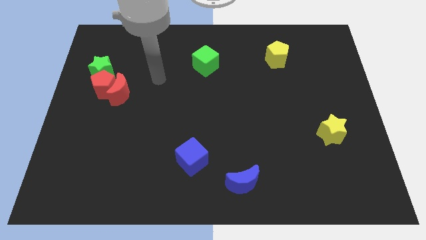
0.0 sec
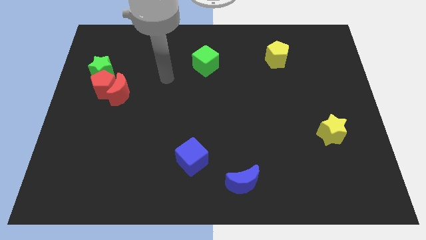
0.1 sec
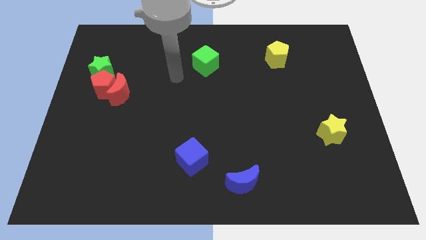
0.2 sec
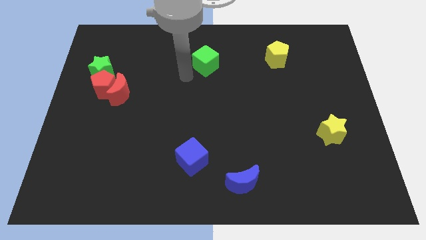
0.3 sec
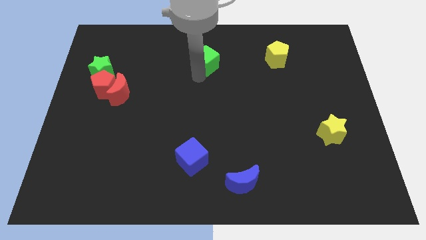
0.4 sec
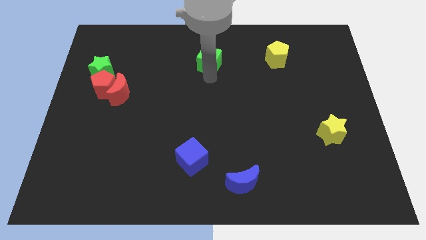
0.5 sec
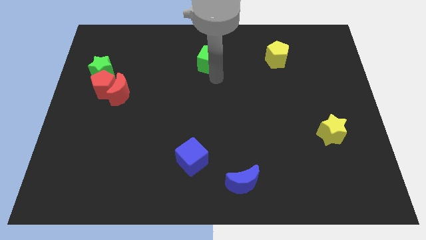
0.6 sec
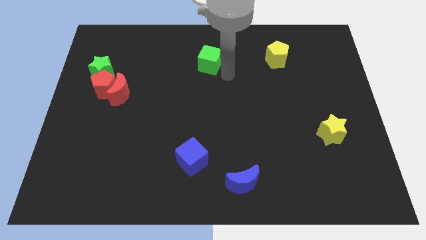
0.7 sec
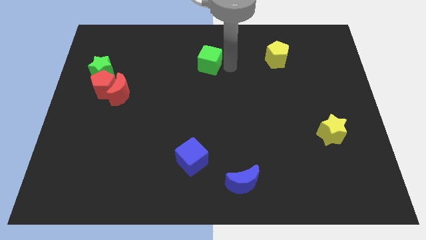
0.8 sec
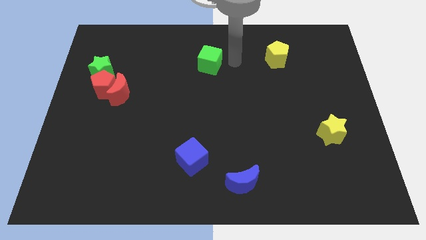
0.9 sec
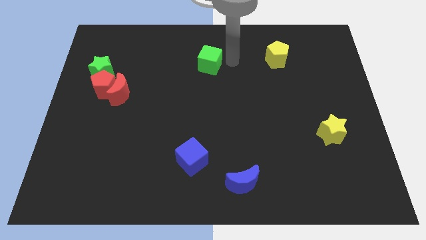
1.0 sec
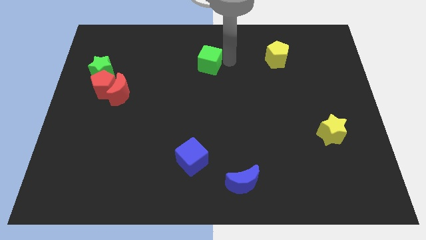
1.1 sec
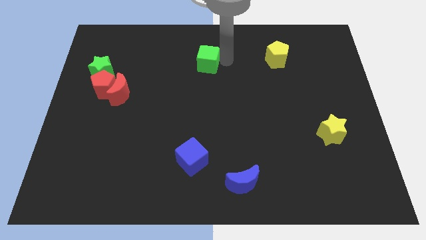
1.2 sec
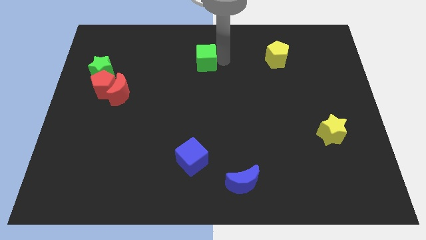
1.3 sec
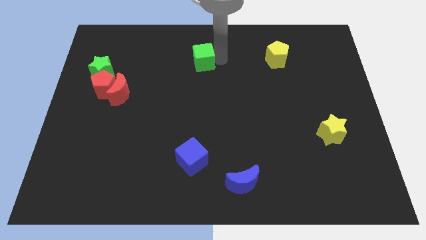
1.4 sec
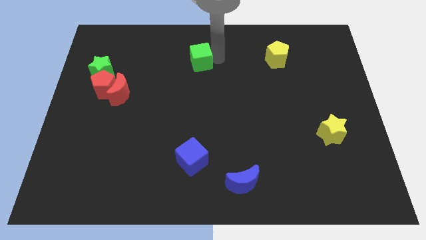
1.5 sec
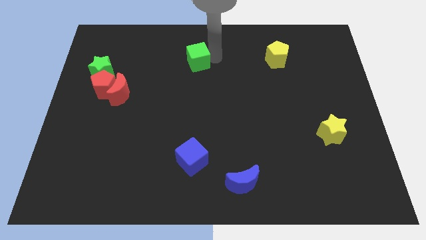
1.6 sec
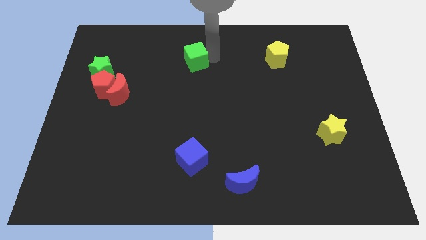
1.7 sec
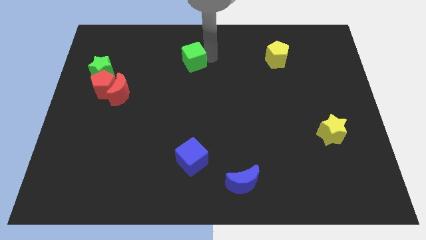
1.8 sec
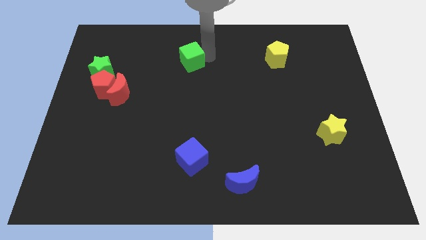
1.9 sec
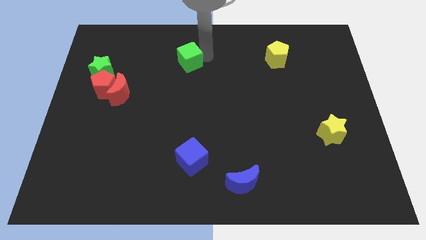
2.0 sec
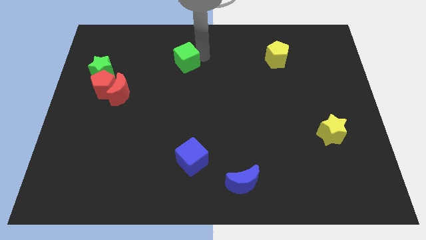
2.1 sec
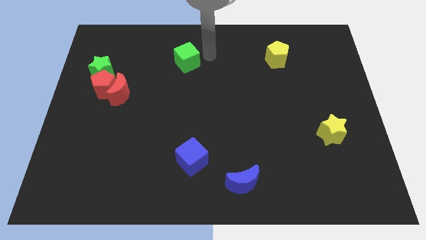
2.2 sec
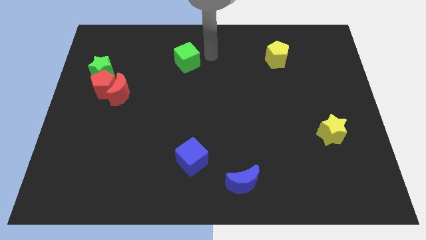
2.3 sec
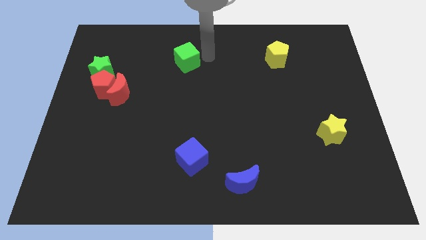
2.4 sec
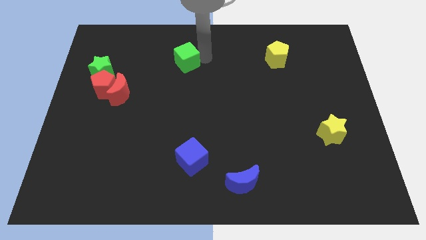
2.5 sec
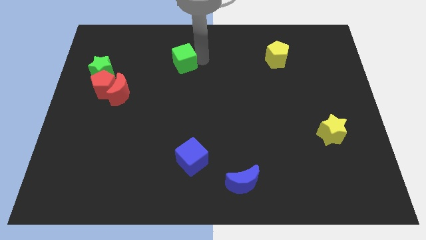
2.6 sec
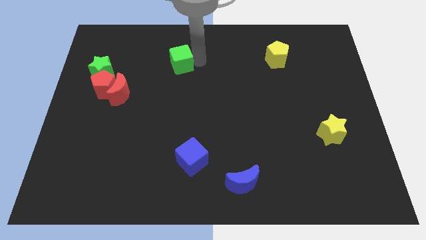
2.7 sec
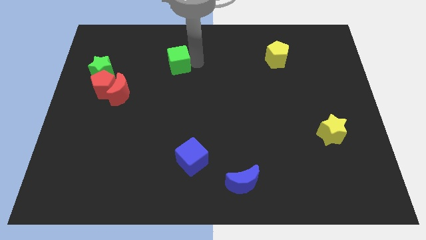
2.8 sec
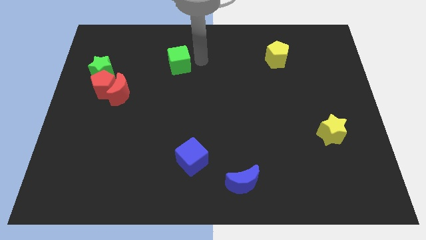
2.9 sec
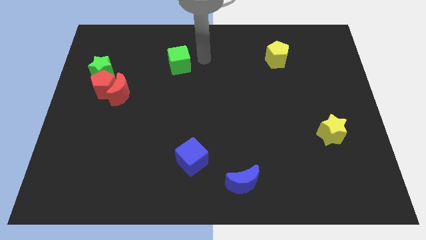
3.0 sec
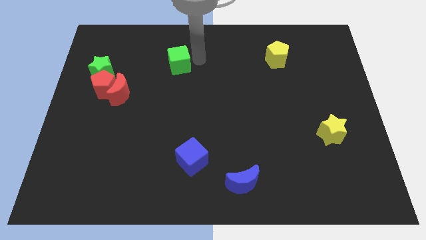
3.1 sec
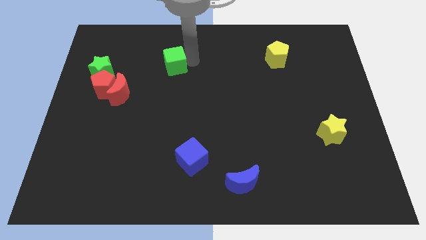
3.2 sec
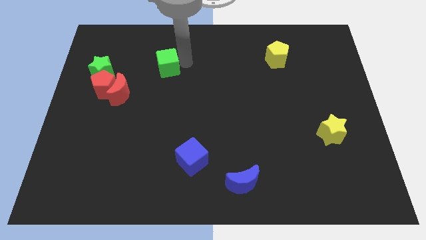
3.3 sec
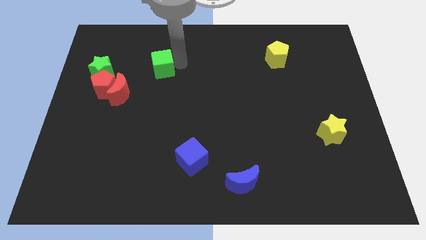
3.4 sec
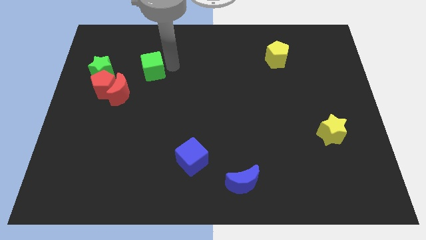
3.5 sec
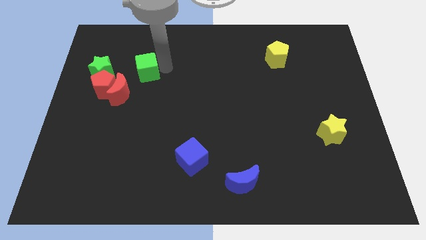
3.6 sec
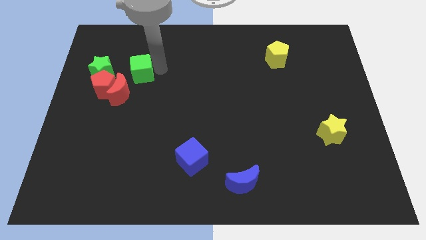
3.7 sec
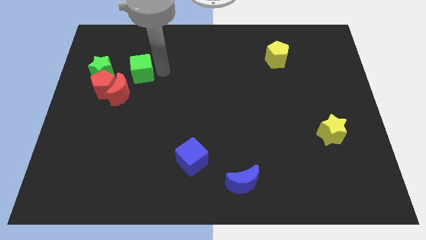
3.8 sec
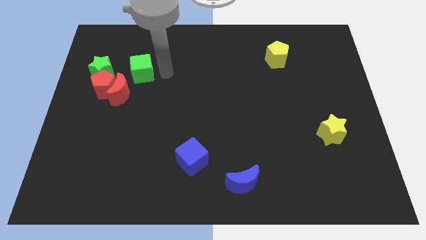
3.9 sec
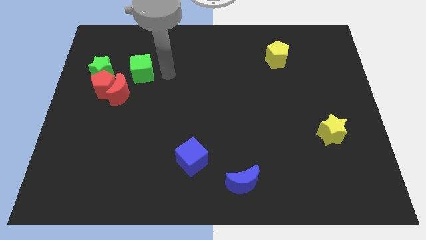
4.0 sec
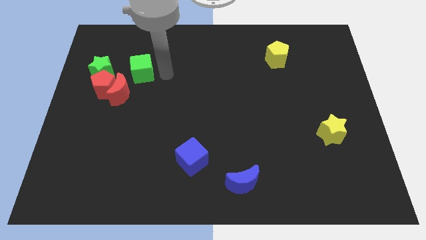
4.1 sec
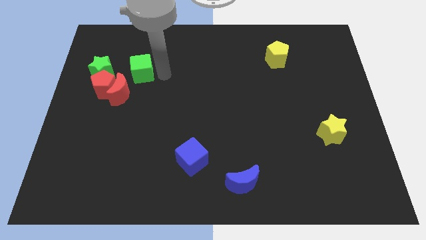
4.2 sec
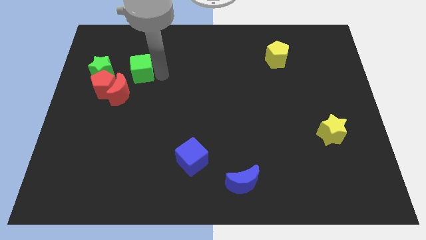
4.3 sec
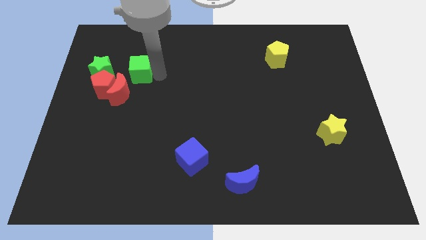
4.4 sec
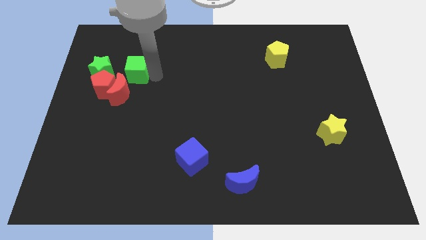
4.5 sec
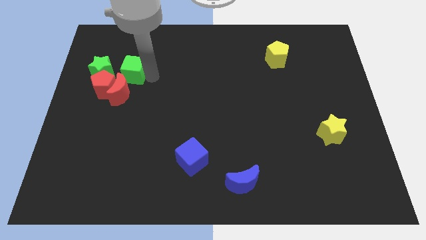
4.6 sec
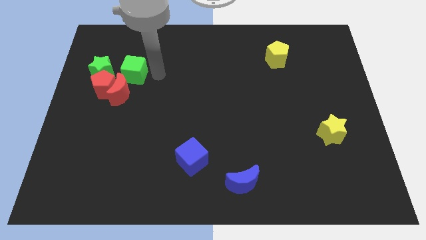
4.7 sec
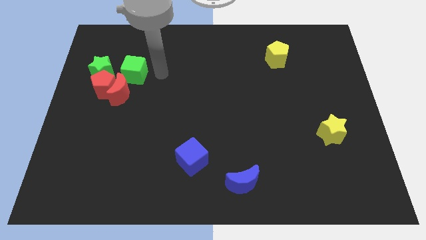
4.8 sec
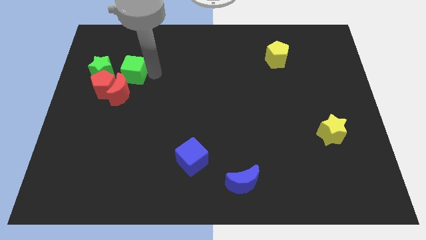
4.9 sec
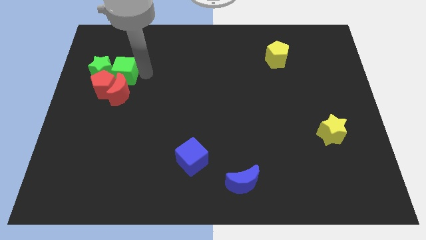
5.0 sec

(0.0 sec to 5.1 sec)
put the green cube next to the green star
